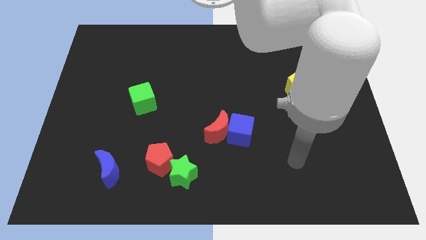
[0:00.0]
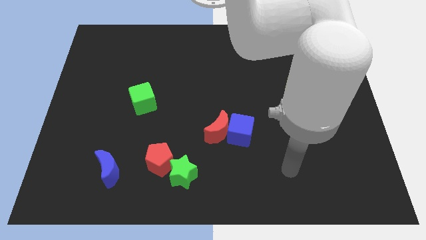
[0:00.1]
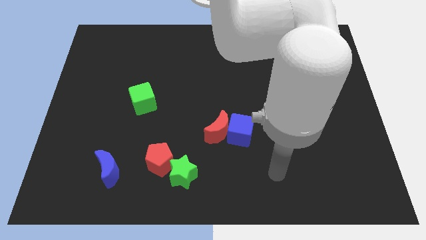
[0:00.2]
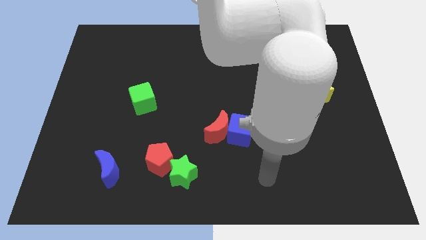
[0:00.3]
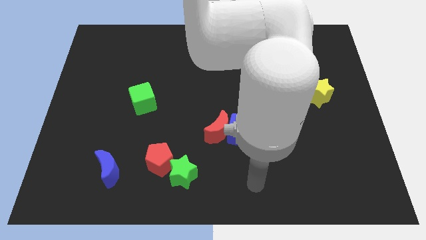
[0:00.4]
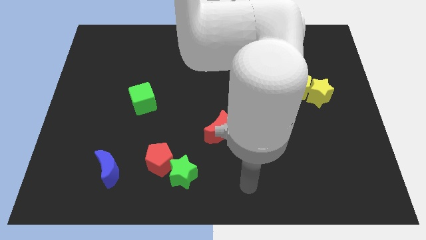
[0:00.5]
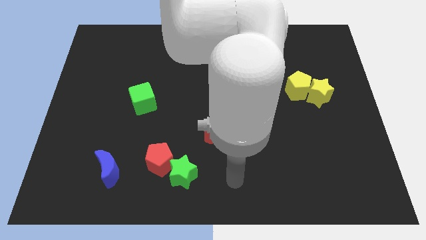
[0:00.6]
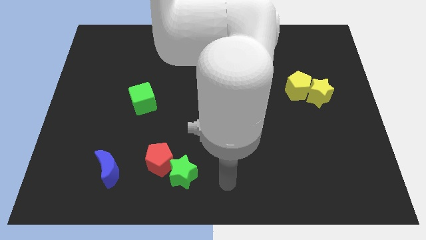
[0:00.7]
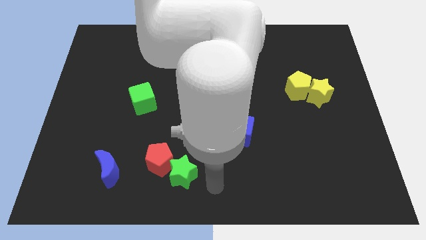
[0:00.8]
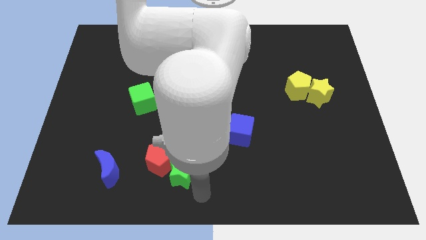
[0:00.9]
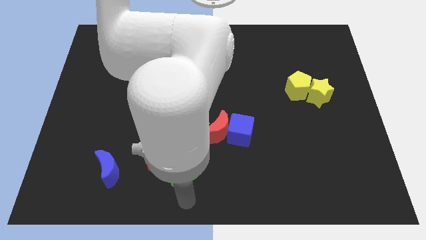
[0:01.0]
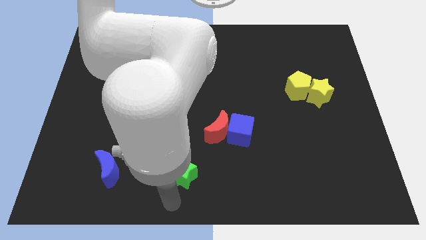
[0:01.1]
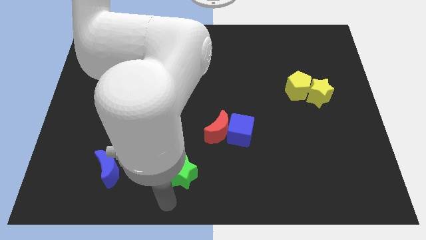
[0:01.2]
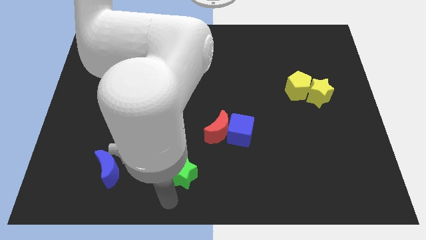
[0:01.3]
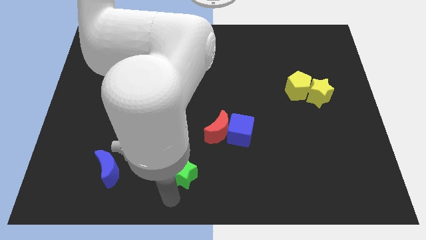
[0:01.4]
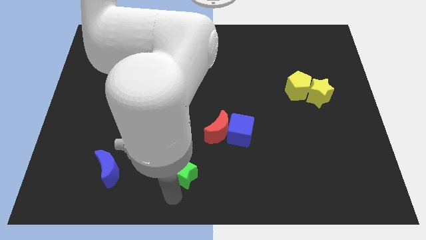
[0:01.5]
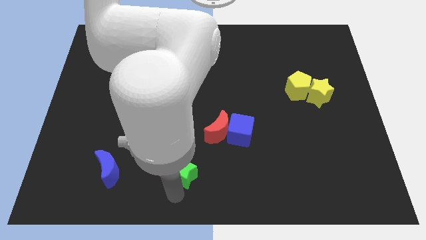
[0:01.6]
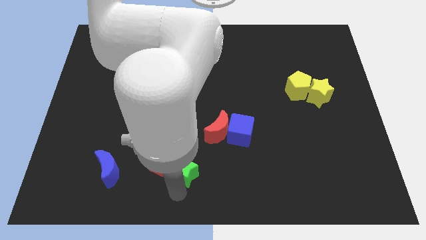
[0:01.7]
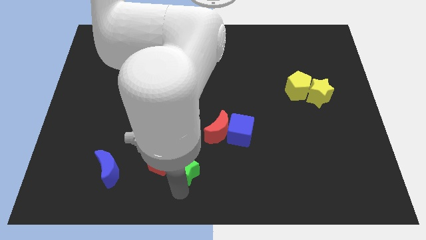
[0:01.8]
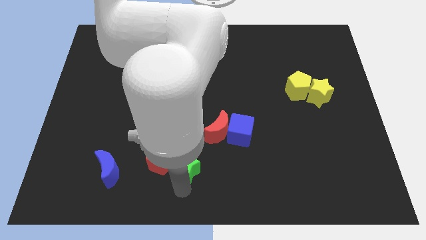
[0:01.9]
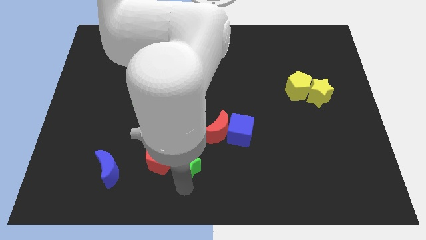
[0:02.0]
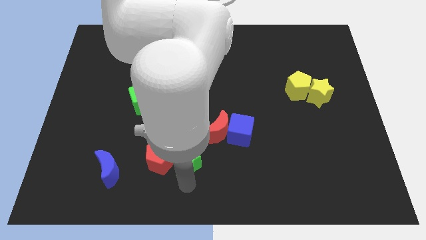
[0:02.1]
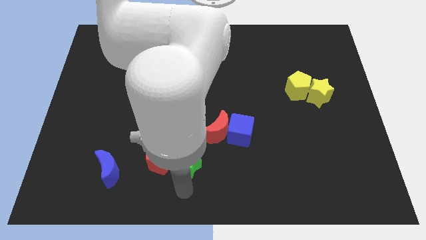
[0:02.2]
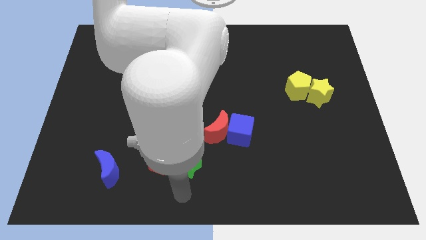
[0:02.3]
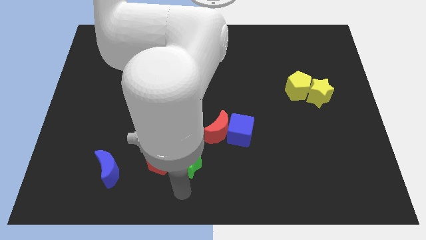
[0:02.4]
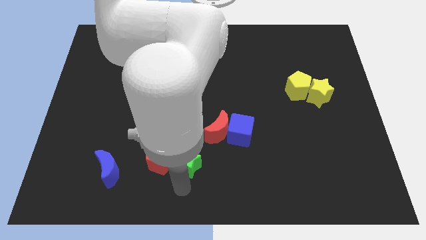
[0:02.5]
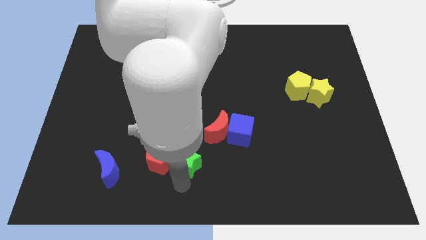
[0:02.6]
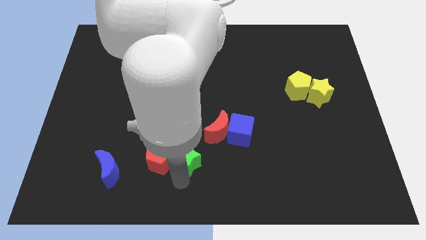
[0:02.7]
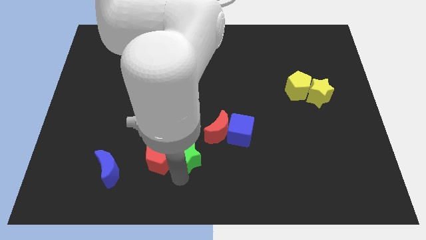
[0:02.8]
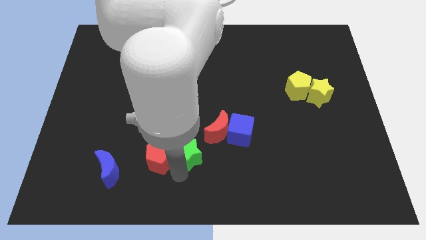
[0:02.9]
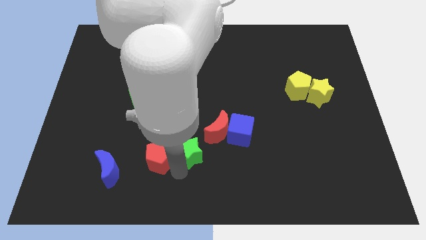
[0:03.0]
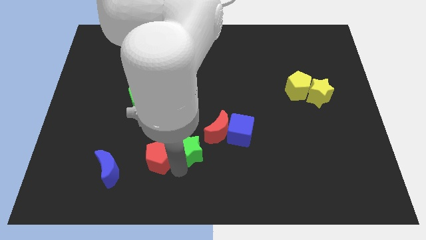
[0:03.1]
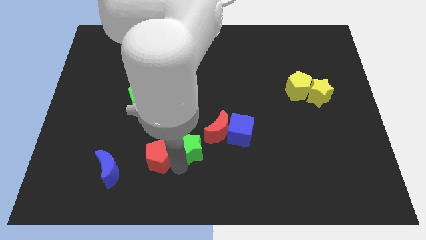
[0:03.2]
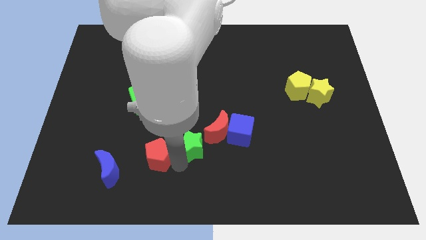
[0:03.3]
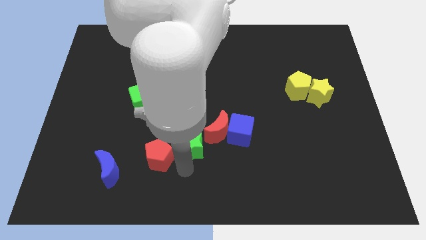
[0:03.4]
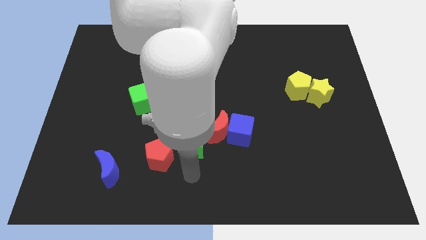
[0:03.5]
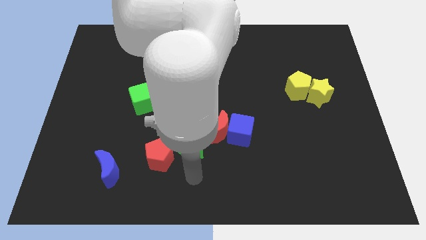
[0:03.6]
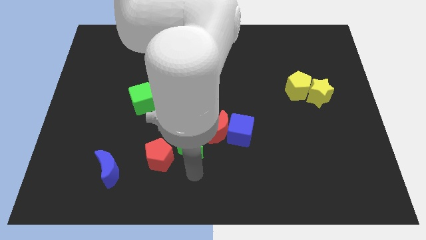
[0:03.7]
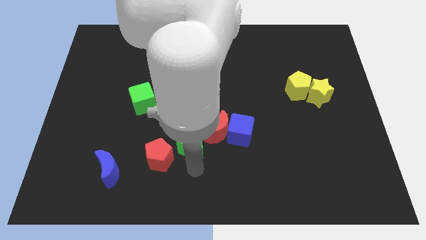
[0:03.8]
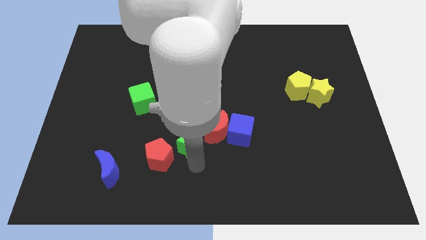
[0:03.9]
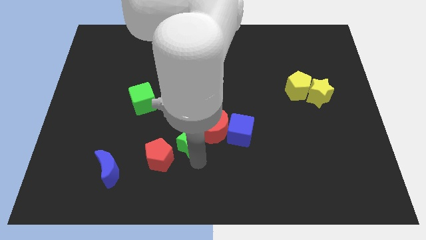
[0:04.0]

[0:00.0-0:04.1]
slightly slide the green star upwards

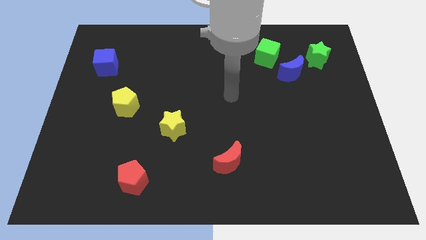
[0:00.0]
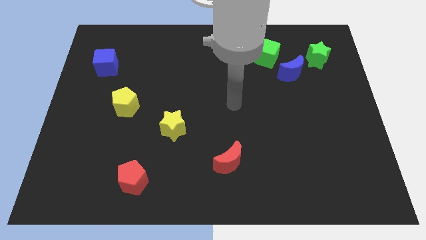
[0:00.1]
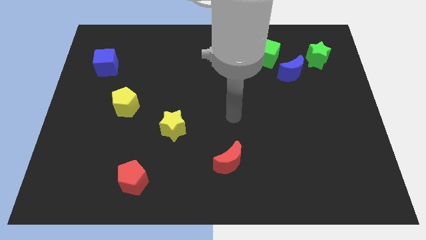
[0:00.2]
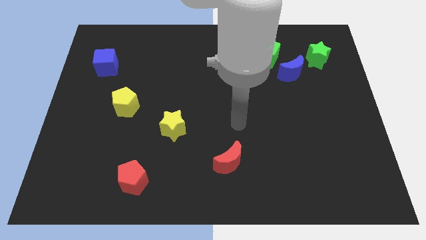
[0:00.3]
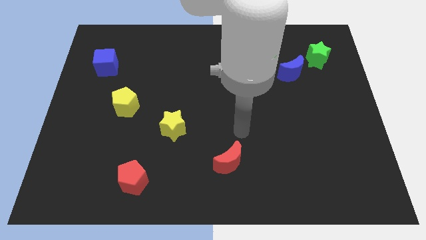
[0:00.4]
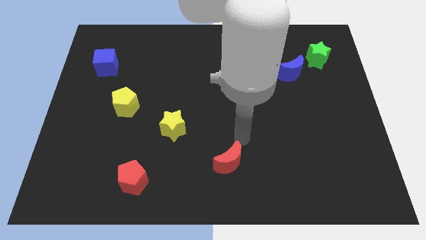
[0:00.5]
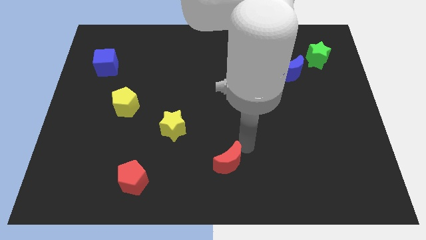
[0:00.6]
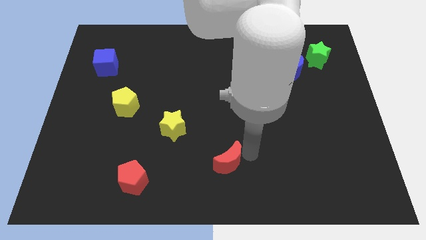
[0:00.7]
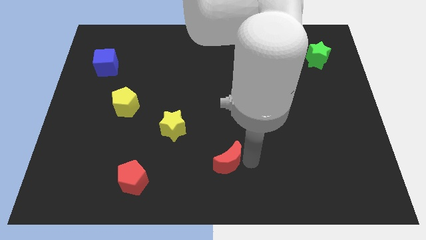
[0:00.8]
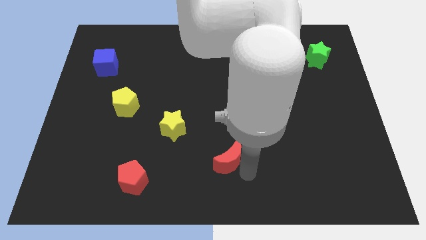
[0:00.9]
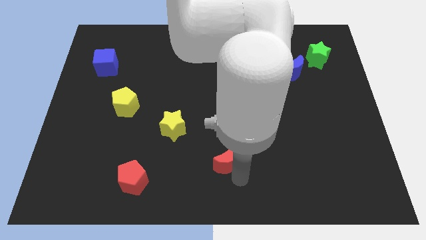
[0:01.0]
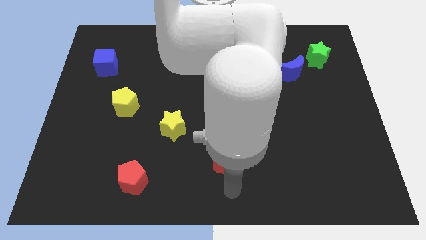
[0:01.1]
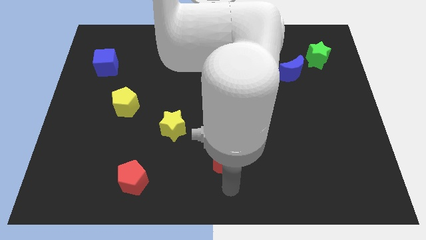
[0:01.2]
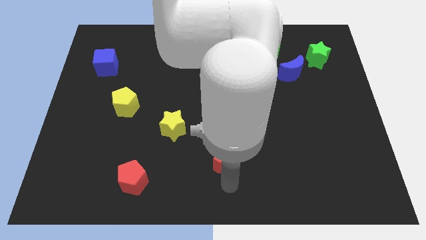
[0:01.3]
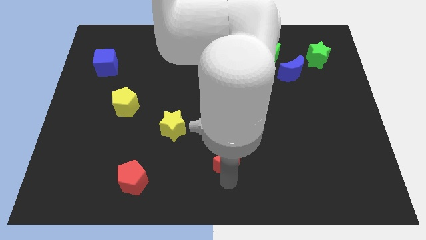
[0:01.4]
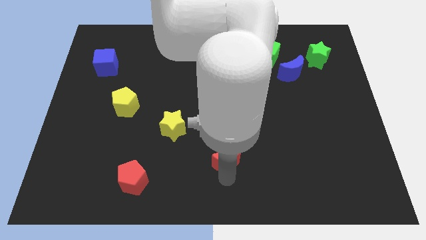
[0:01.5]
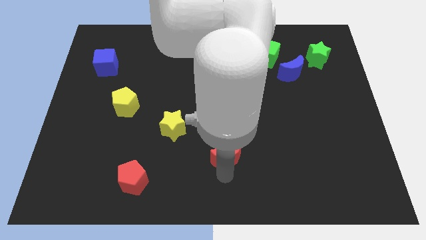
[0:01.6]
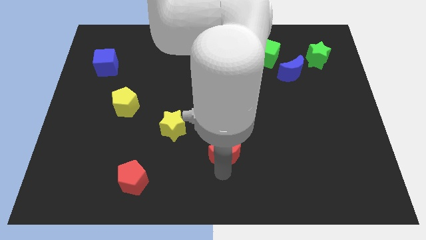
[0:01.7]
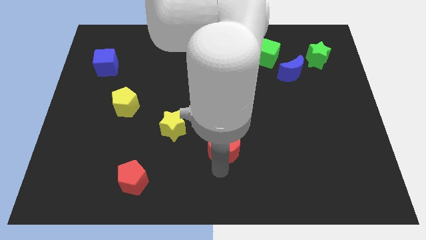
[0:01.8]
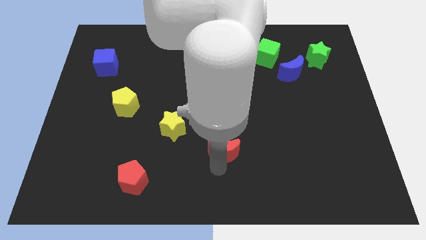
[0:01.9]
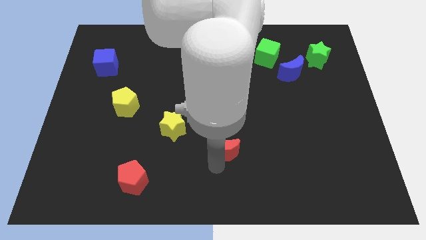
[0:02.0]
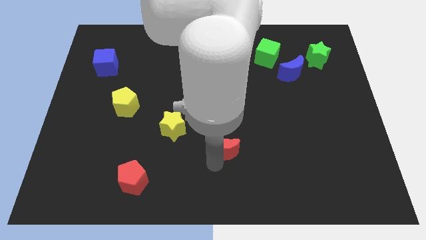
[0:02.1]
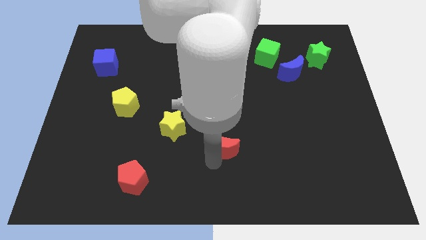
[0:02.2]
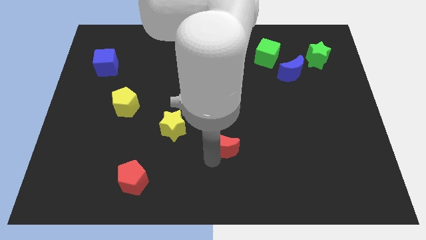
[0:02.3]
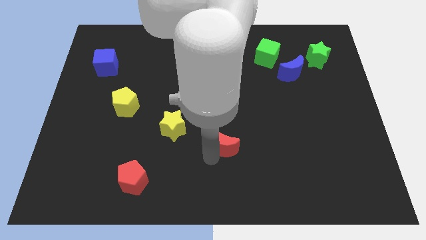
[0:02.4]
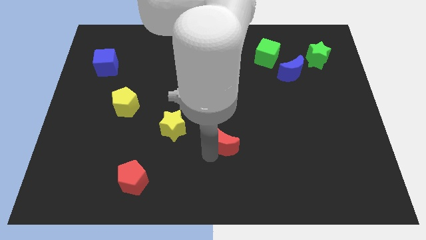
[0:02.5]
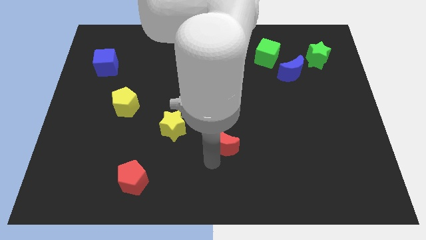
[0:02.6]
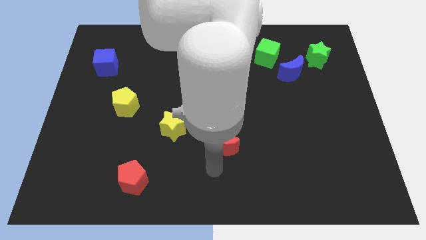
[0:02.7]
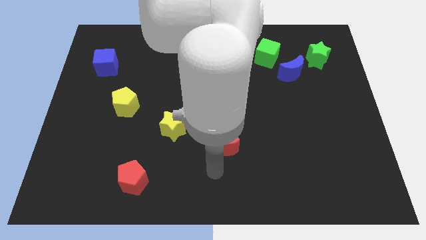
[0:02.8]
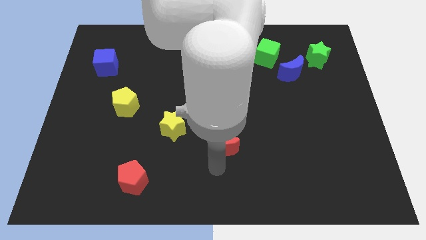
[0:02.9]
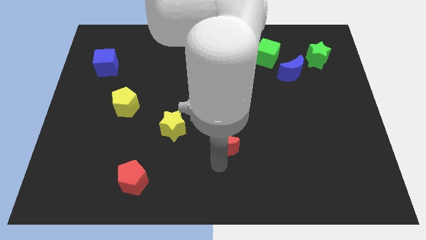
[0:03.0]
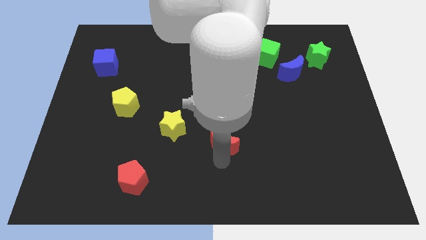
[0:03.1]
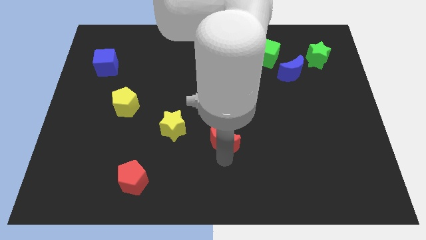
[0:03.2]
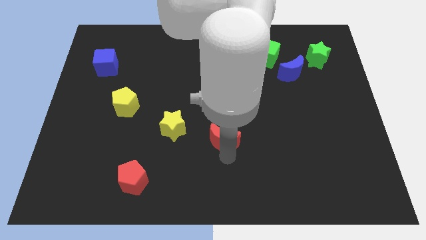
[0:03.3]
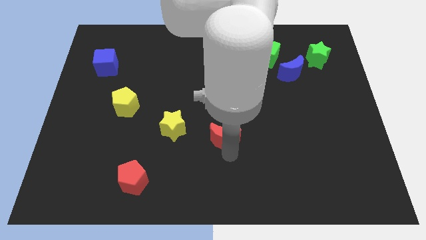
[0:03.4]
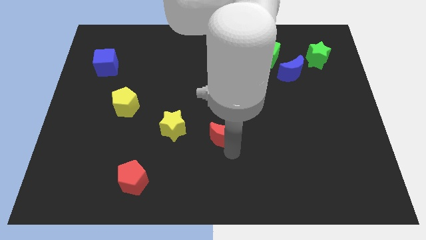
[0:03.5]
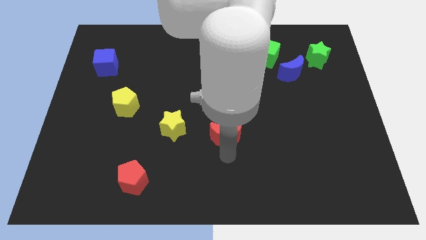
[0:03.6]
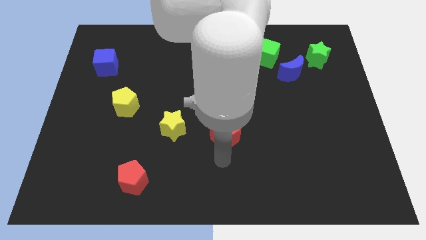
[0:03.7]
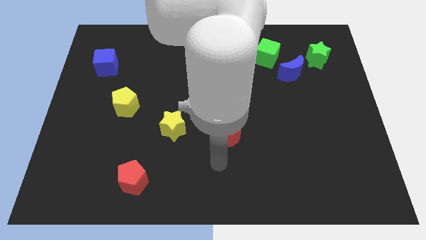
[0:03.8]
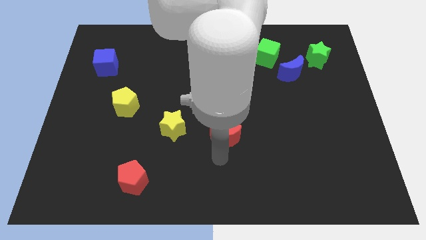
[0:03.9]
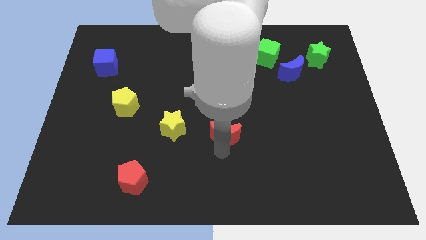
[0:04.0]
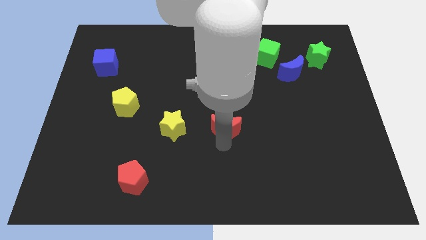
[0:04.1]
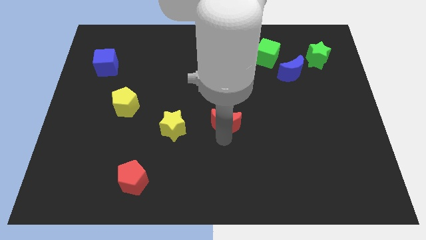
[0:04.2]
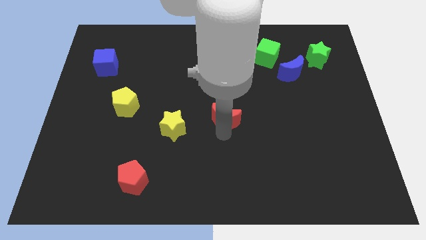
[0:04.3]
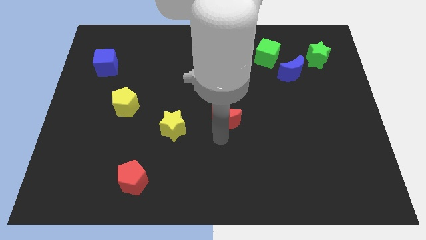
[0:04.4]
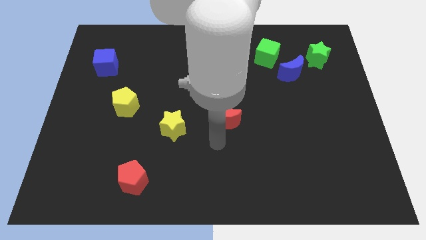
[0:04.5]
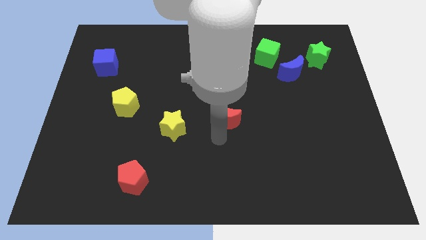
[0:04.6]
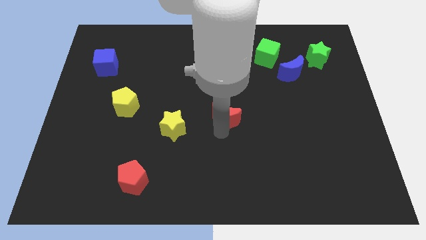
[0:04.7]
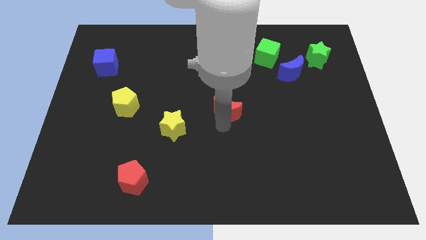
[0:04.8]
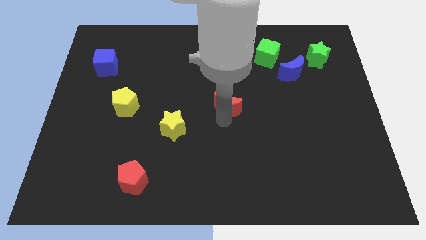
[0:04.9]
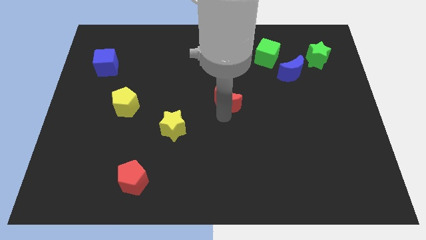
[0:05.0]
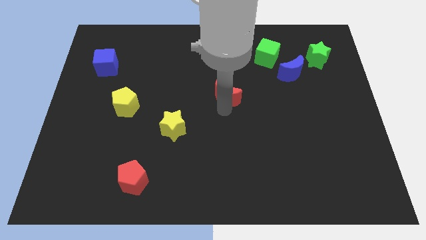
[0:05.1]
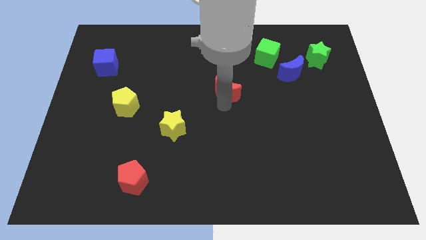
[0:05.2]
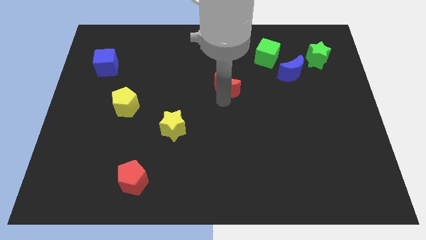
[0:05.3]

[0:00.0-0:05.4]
move the red moon up
